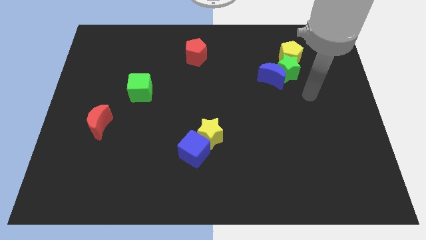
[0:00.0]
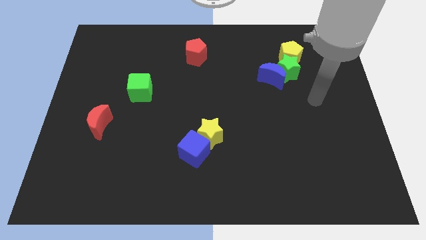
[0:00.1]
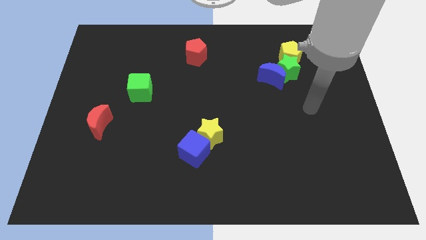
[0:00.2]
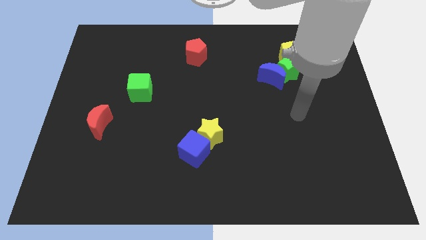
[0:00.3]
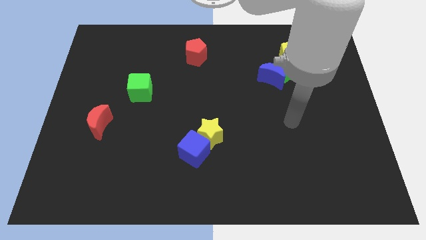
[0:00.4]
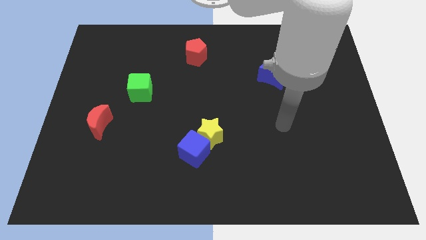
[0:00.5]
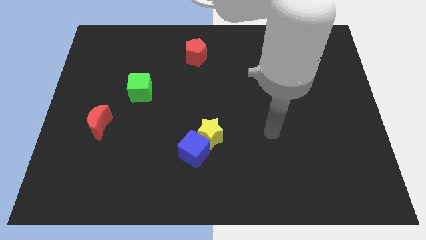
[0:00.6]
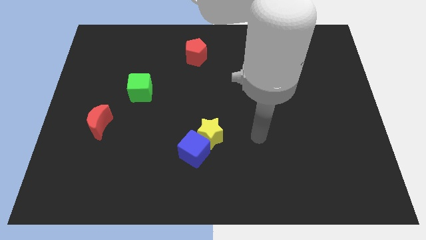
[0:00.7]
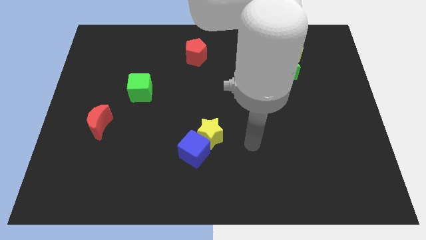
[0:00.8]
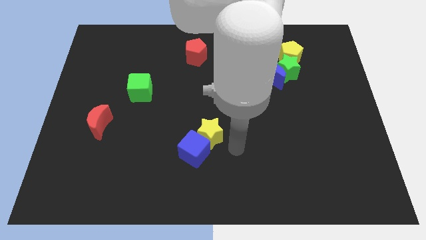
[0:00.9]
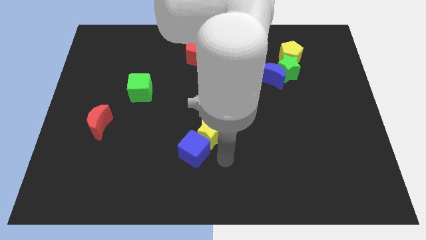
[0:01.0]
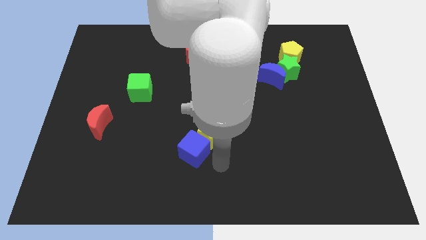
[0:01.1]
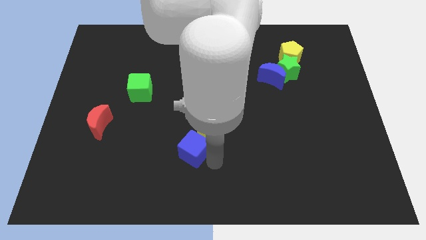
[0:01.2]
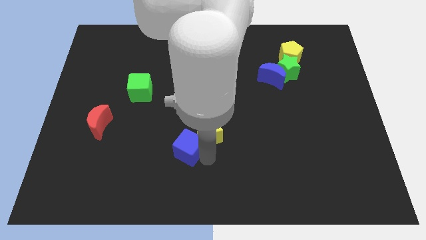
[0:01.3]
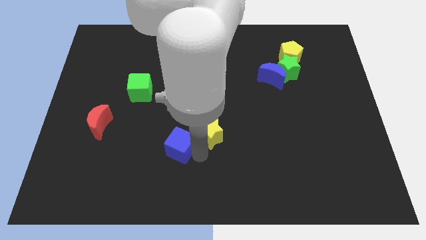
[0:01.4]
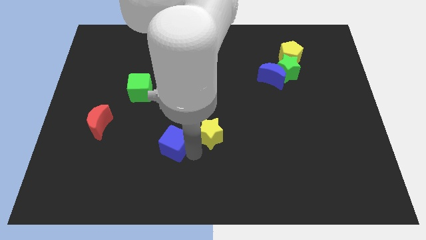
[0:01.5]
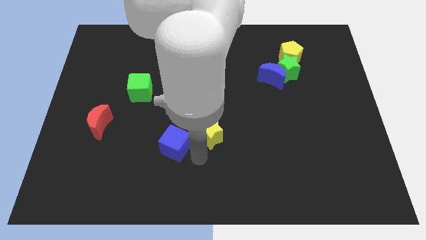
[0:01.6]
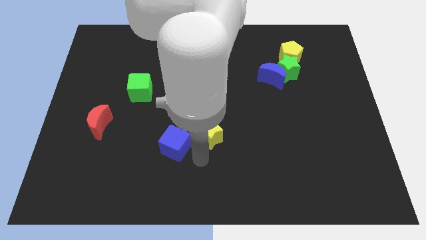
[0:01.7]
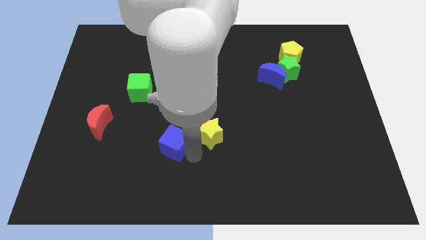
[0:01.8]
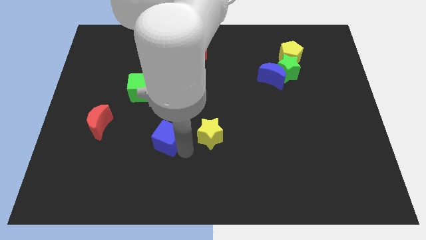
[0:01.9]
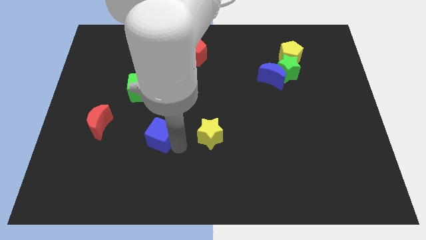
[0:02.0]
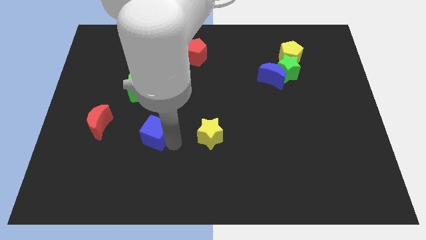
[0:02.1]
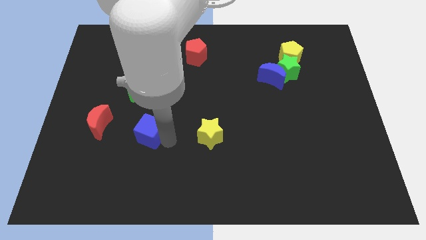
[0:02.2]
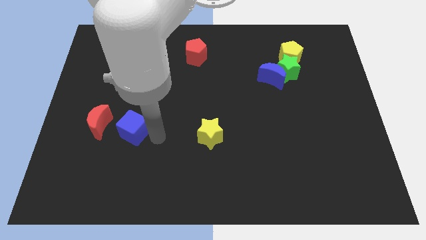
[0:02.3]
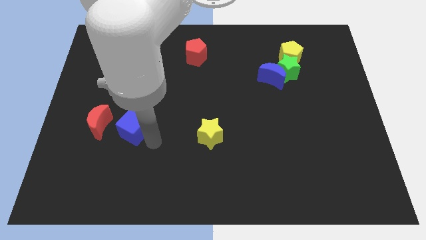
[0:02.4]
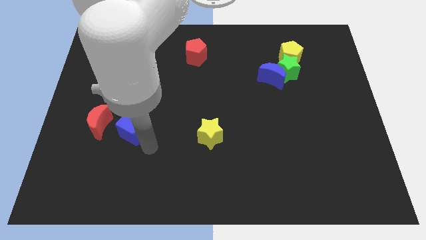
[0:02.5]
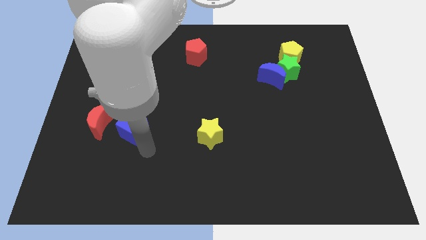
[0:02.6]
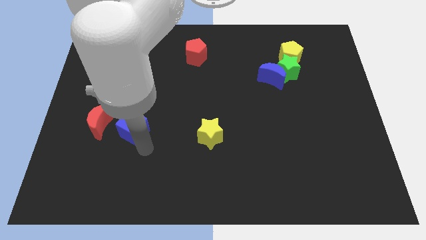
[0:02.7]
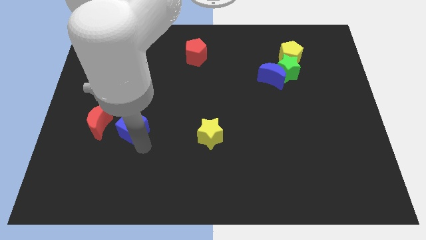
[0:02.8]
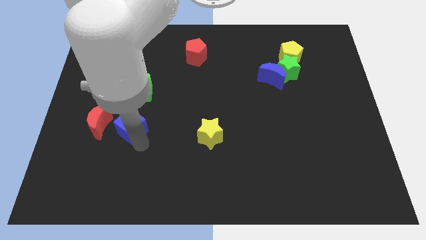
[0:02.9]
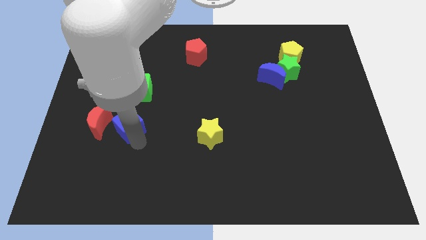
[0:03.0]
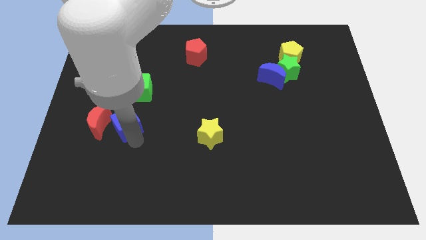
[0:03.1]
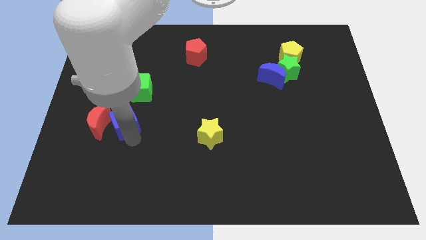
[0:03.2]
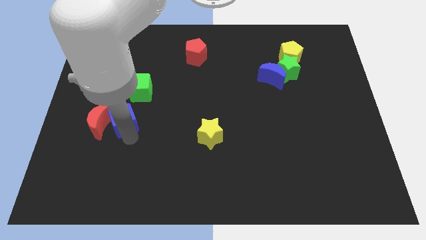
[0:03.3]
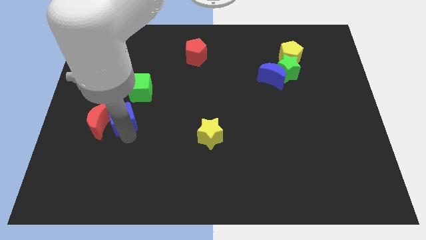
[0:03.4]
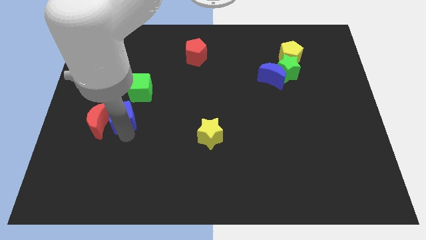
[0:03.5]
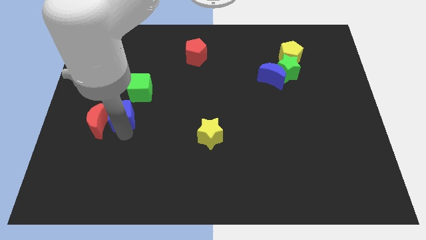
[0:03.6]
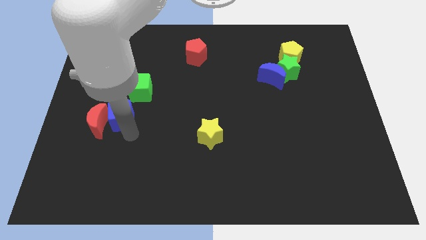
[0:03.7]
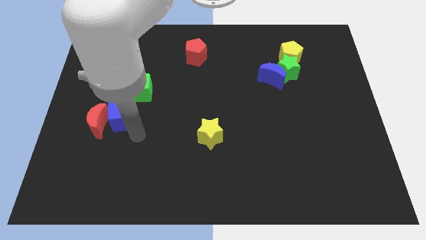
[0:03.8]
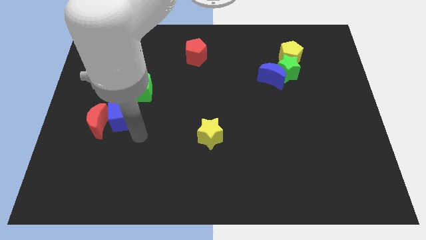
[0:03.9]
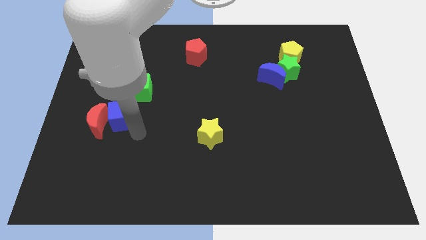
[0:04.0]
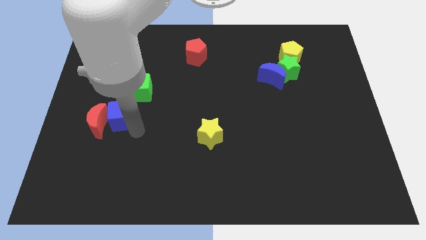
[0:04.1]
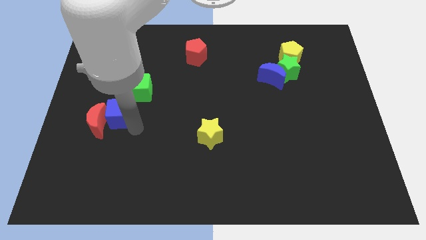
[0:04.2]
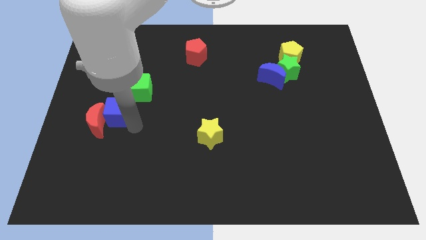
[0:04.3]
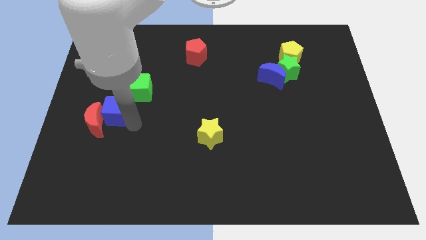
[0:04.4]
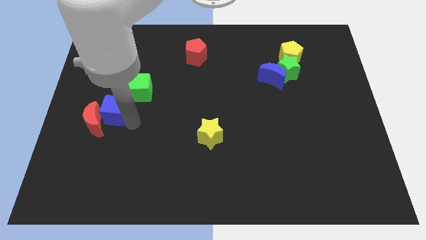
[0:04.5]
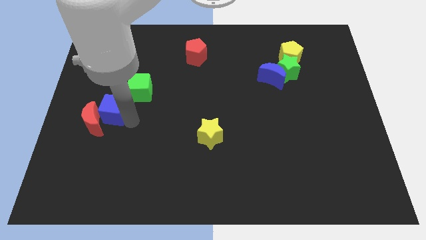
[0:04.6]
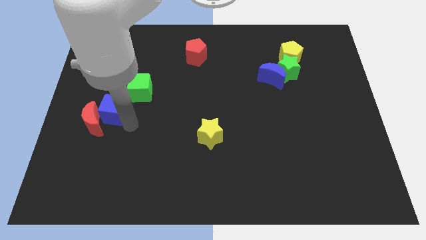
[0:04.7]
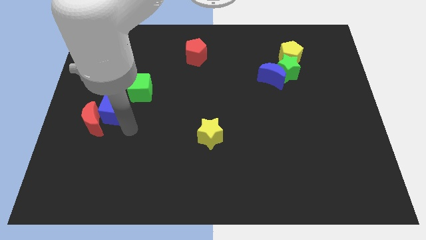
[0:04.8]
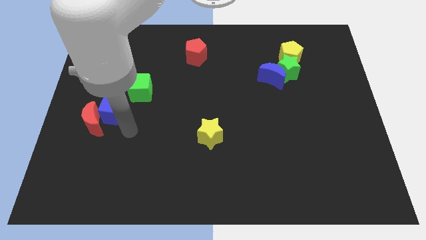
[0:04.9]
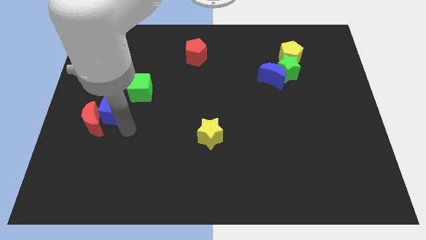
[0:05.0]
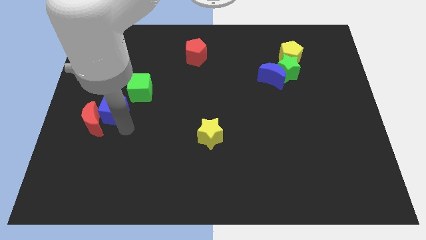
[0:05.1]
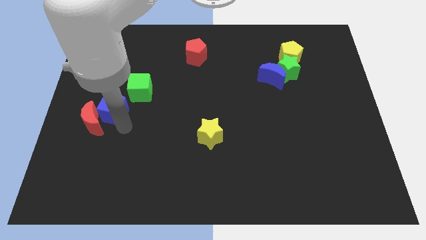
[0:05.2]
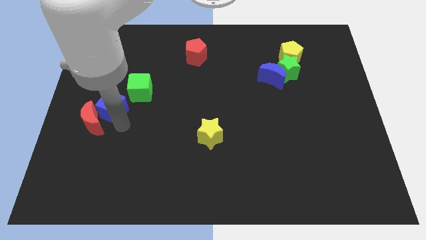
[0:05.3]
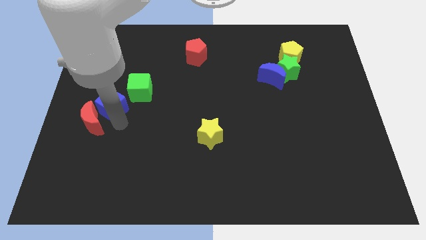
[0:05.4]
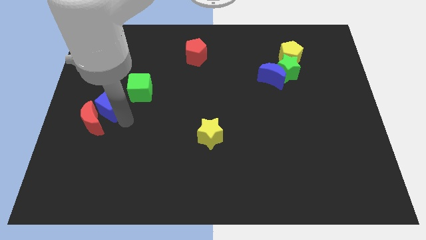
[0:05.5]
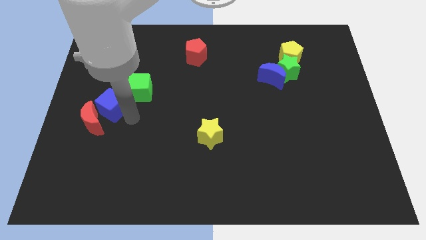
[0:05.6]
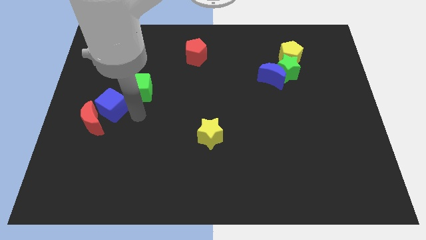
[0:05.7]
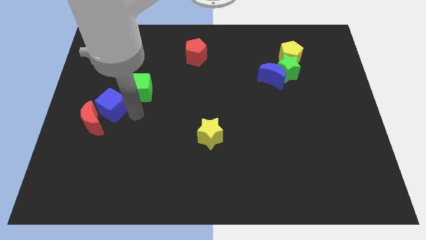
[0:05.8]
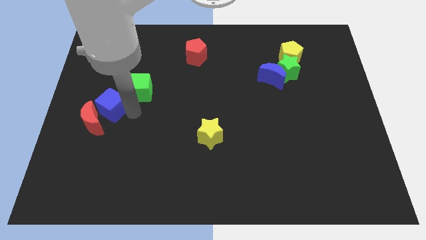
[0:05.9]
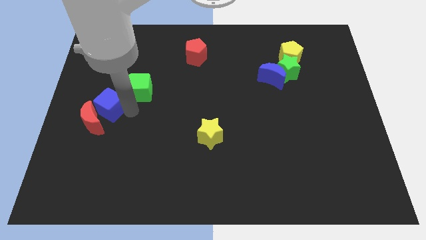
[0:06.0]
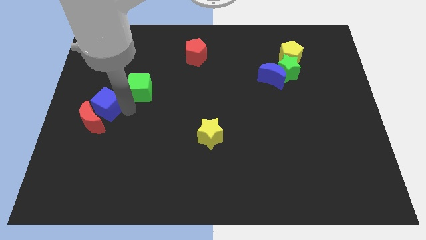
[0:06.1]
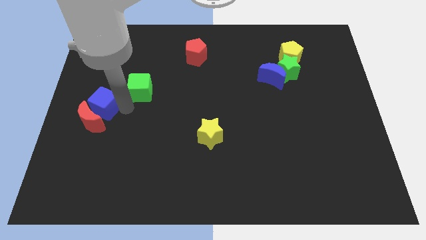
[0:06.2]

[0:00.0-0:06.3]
slide the blue cube to the left side

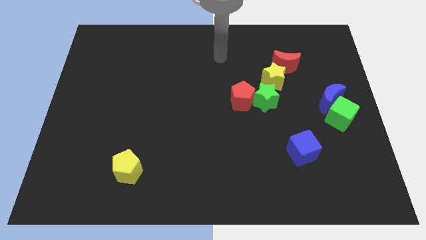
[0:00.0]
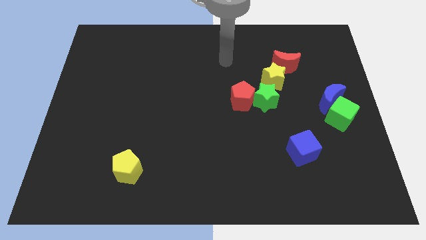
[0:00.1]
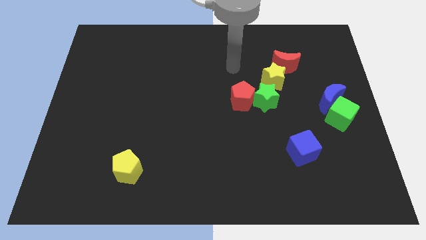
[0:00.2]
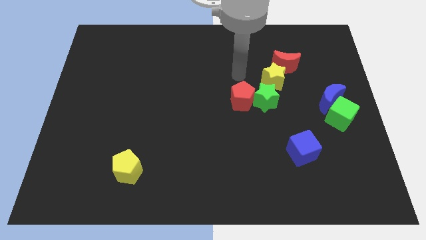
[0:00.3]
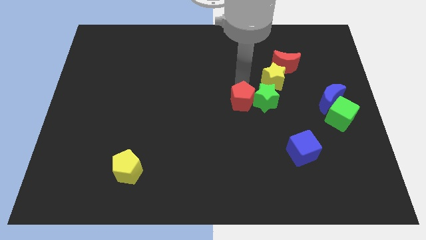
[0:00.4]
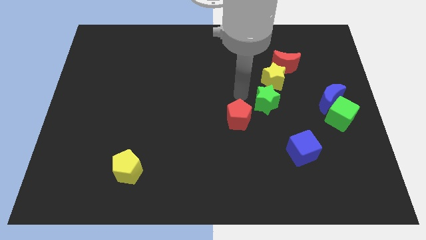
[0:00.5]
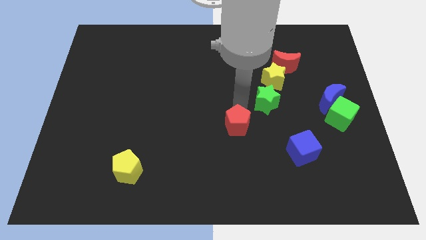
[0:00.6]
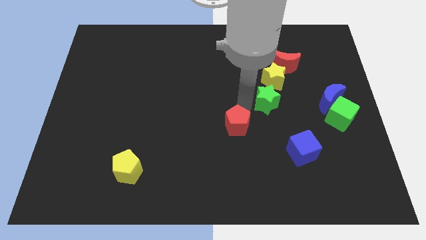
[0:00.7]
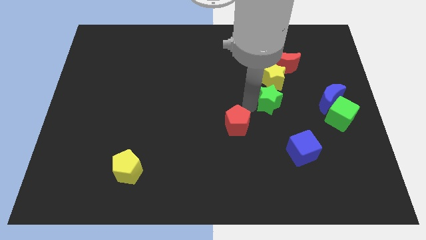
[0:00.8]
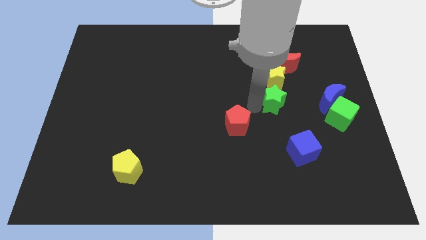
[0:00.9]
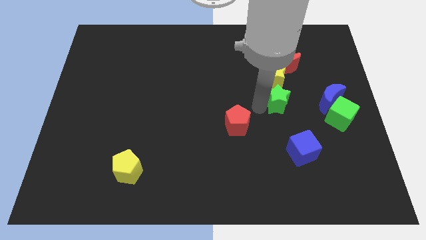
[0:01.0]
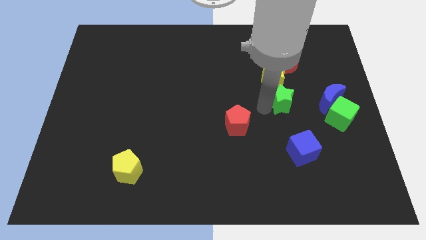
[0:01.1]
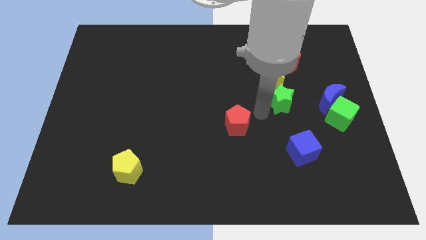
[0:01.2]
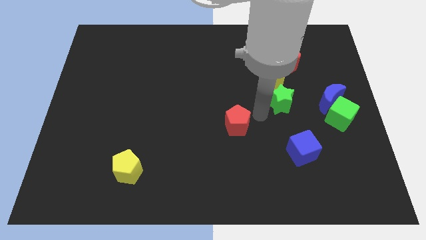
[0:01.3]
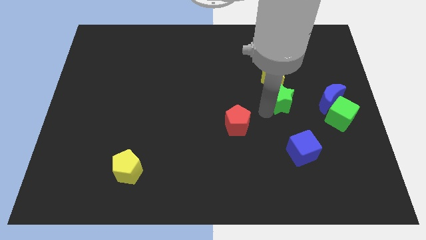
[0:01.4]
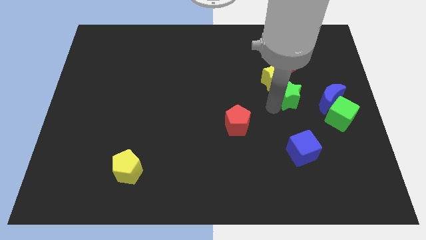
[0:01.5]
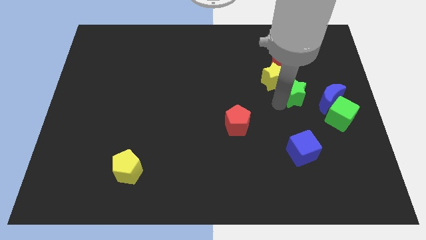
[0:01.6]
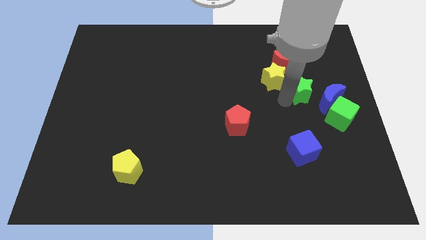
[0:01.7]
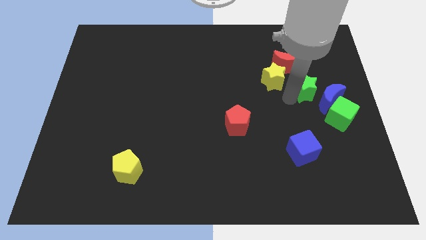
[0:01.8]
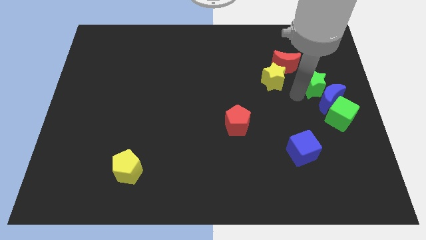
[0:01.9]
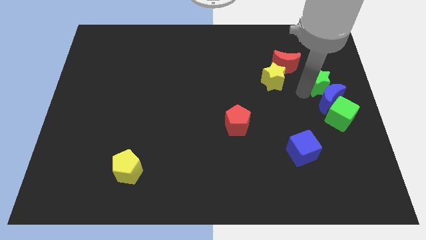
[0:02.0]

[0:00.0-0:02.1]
push the green star to the center right
